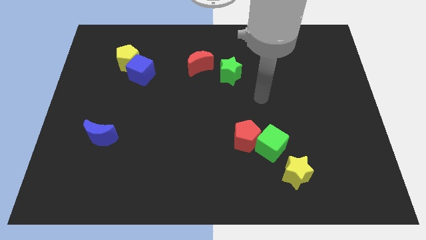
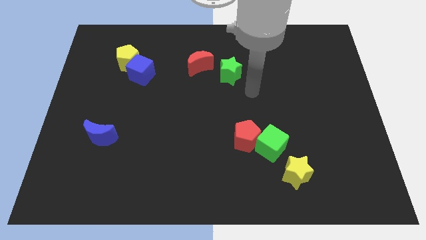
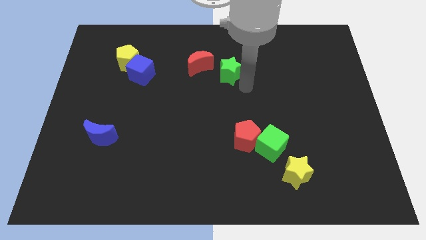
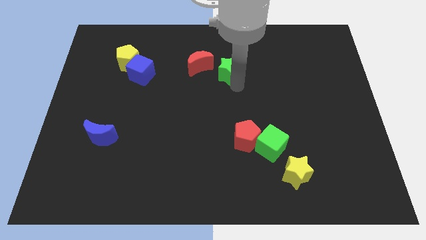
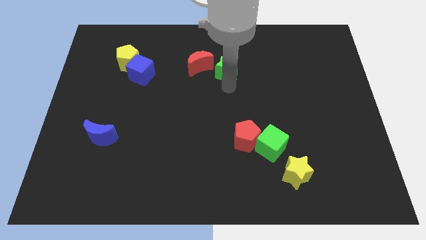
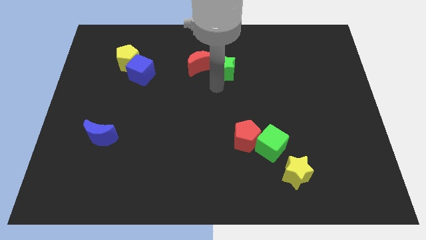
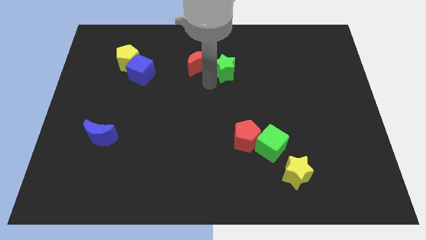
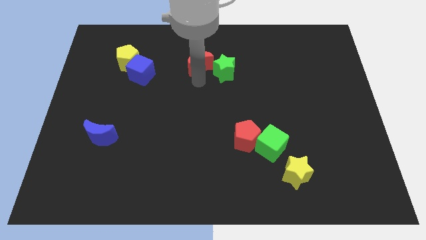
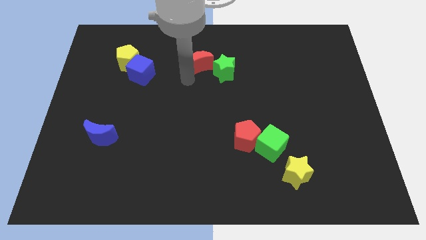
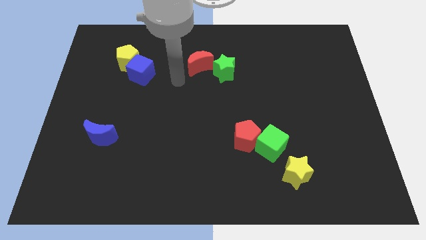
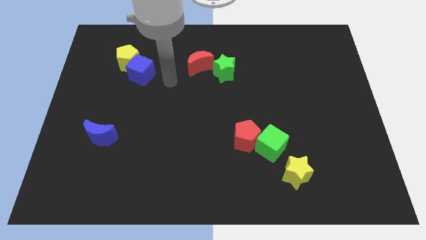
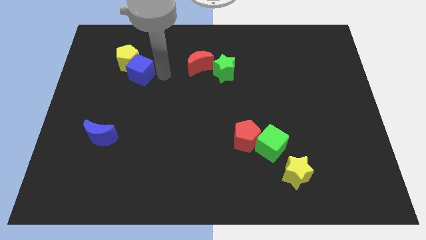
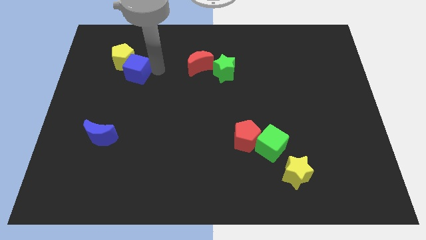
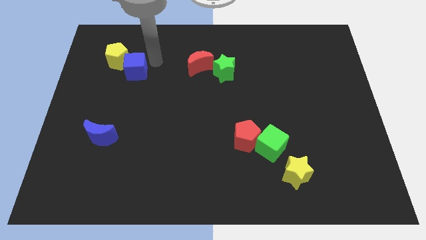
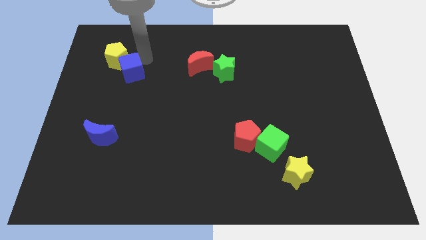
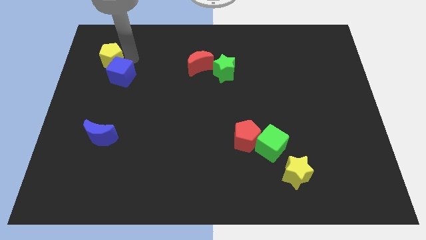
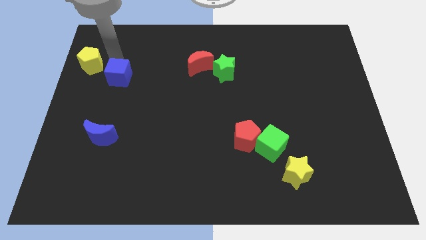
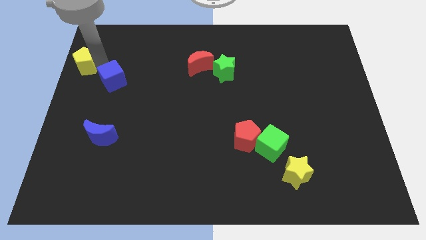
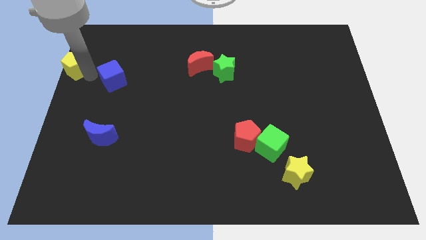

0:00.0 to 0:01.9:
separate the blue cube from the yellow pentagon

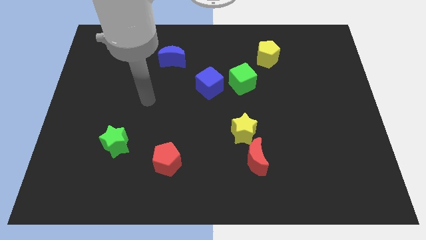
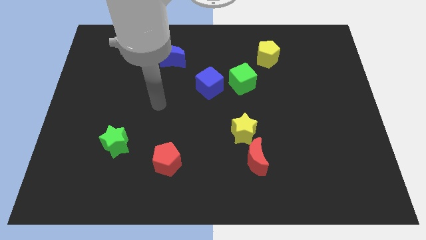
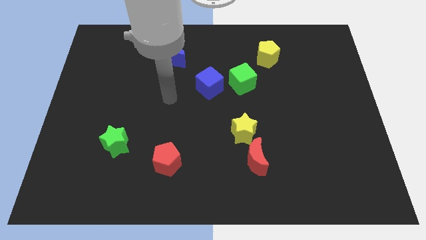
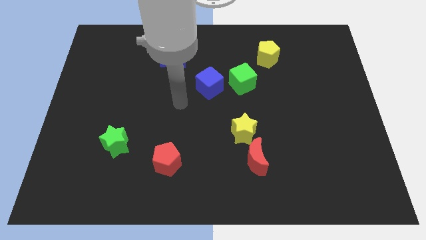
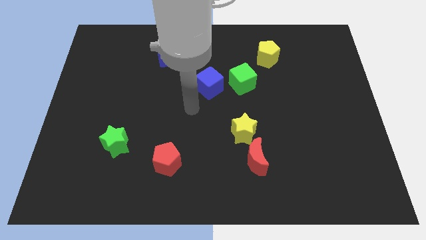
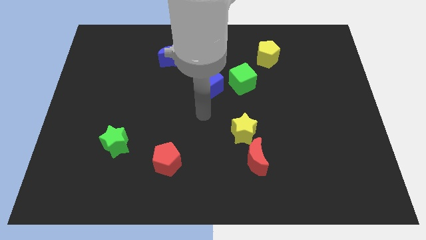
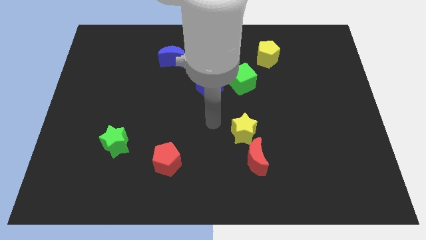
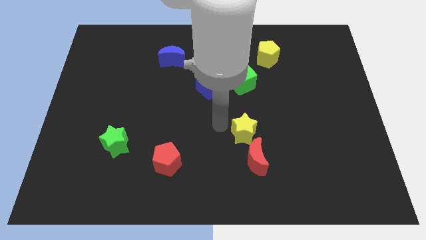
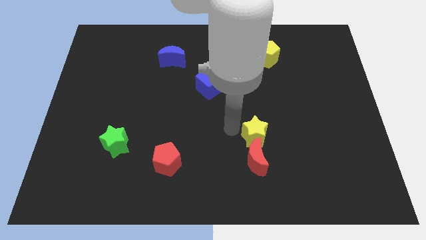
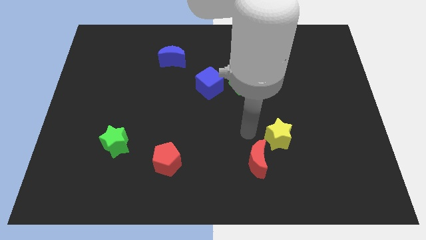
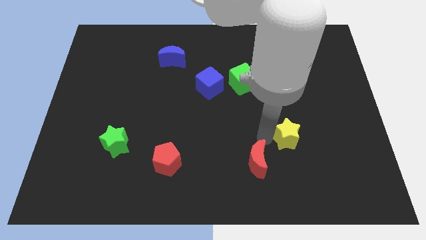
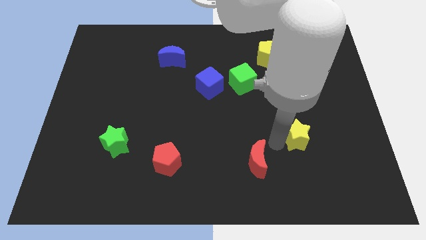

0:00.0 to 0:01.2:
separate the red moon from the yellow star

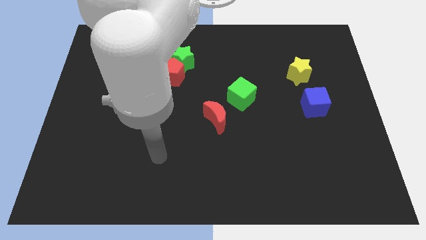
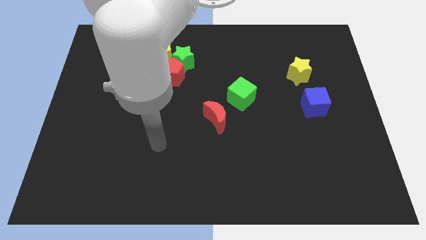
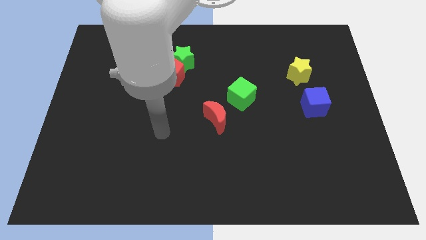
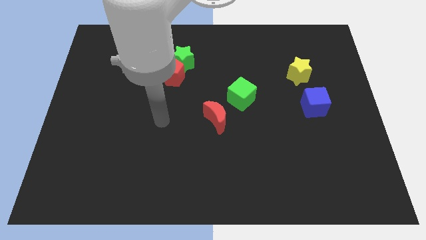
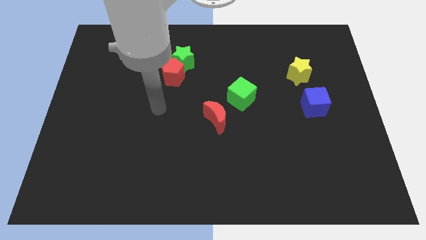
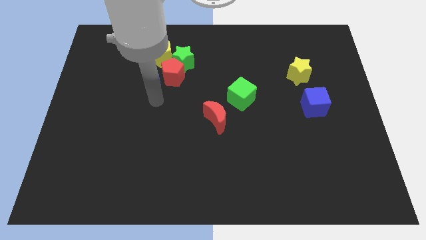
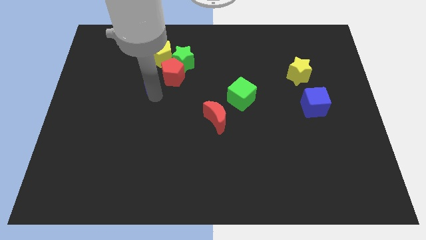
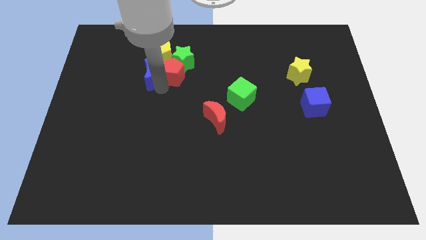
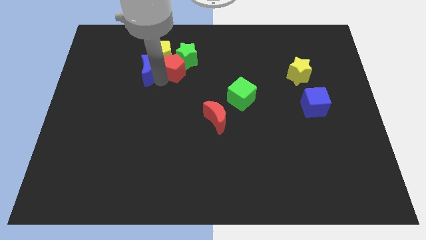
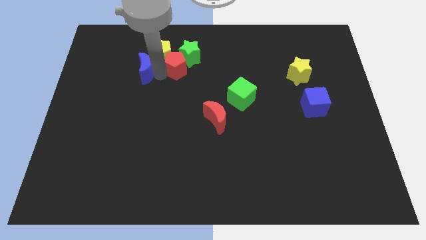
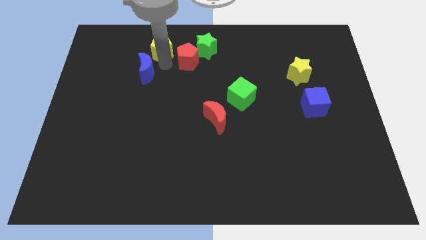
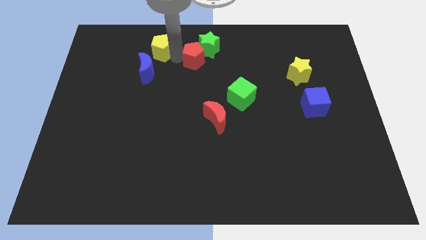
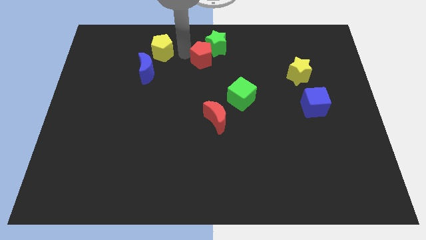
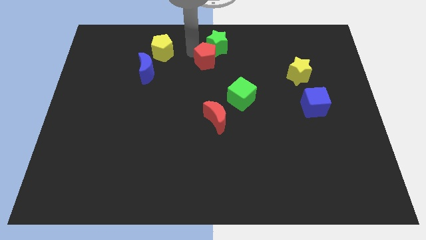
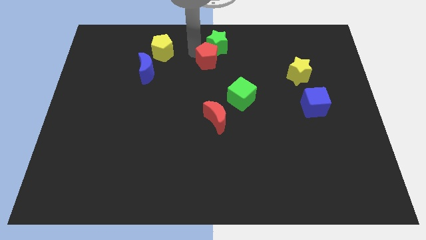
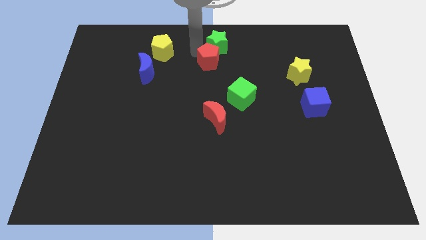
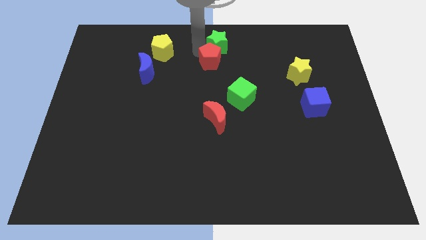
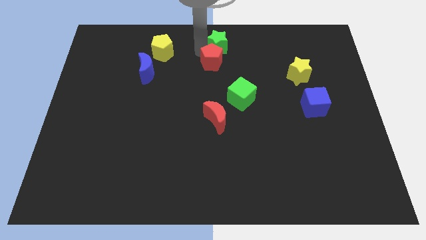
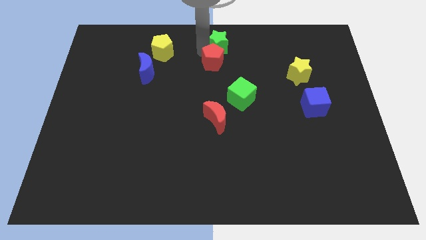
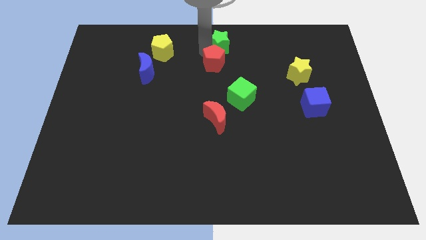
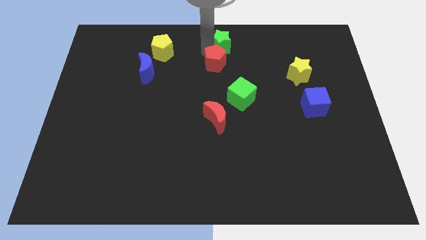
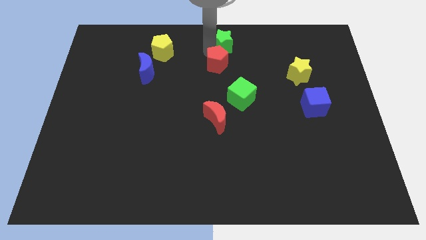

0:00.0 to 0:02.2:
move the green star away from the red pentagon and yellow pentagon

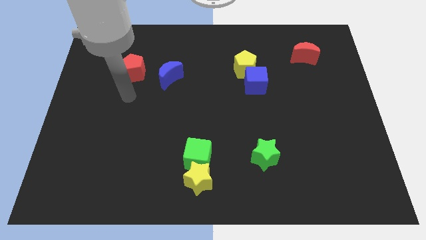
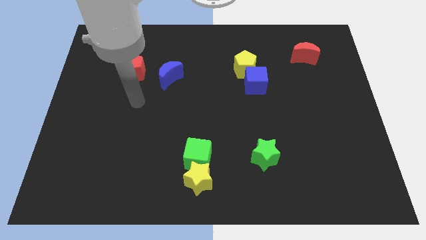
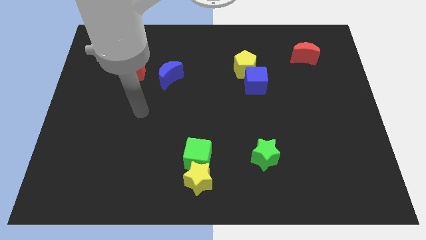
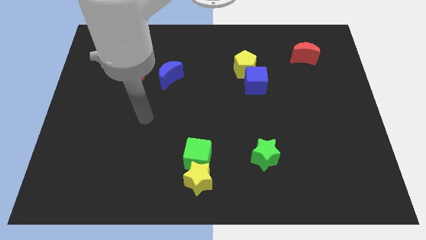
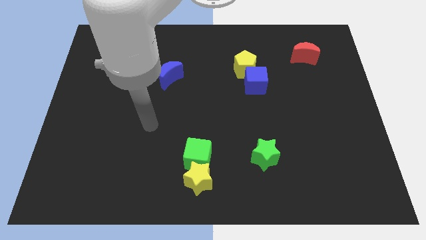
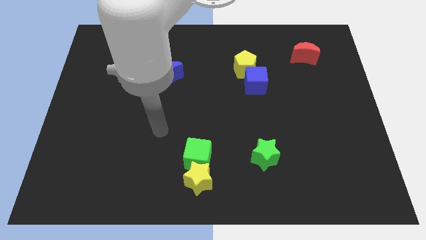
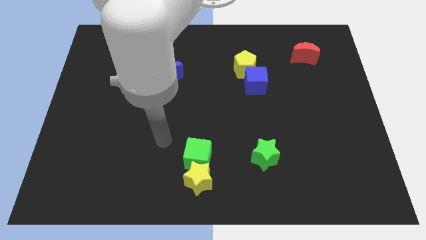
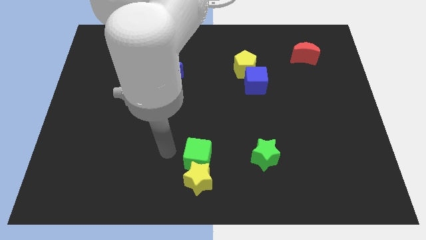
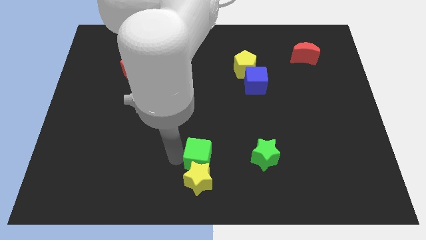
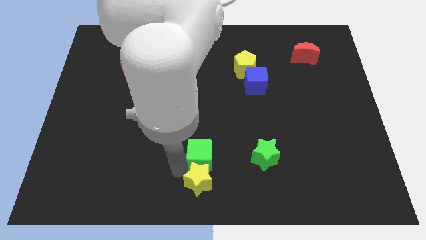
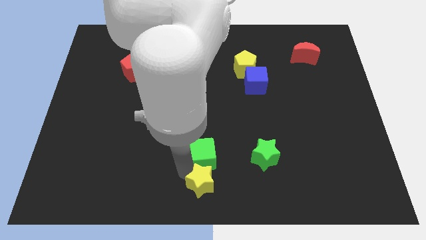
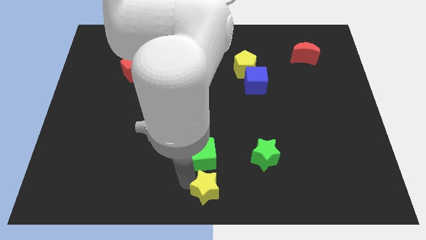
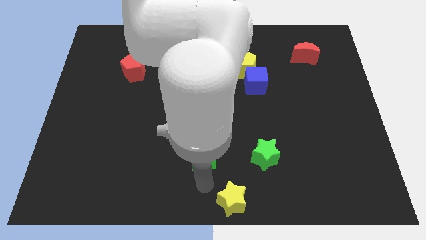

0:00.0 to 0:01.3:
pull the green cube apart from the yellow star

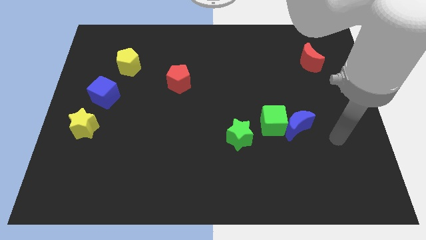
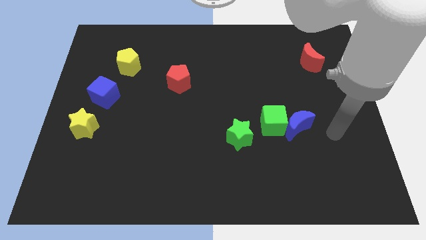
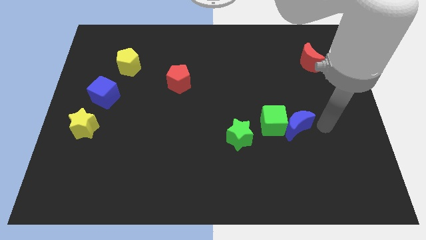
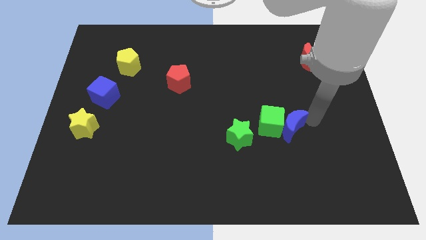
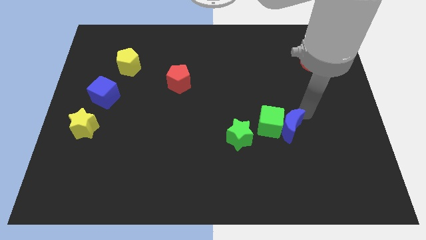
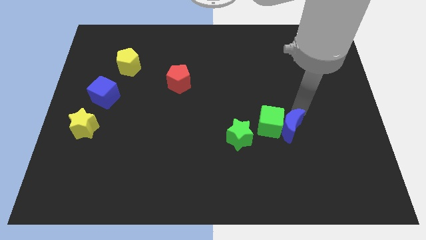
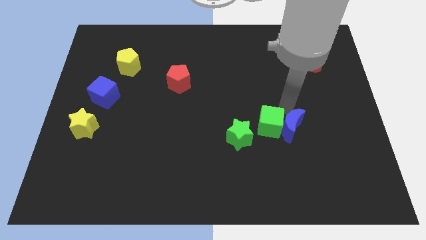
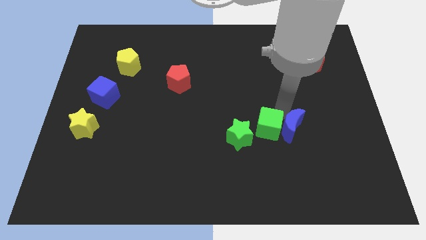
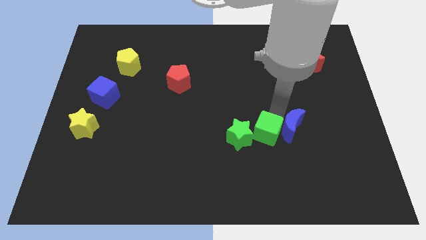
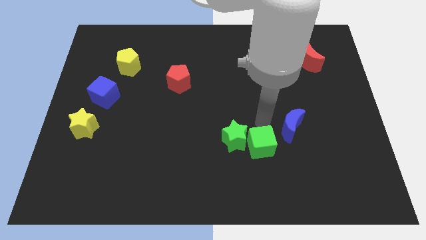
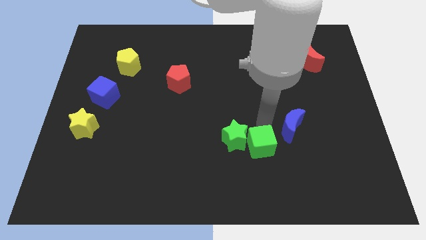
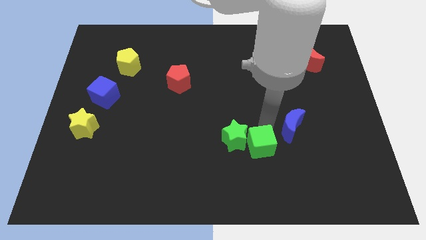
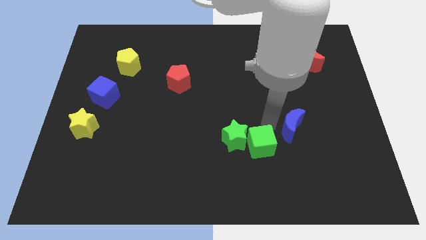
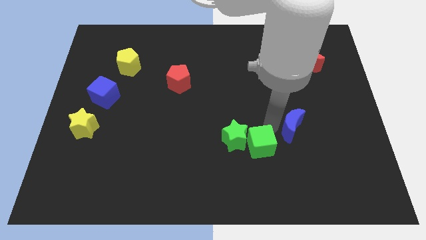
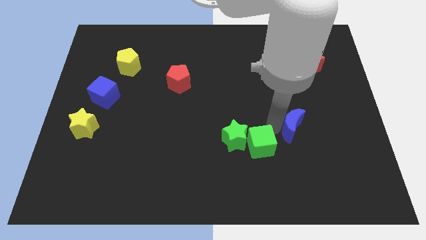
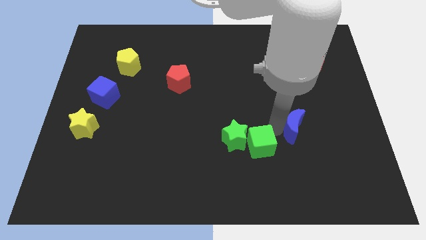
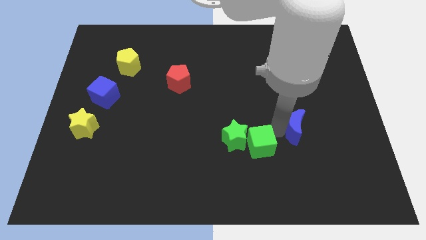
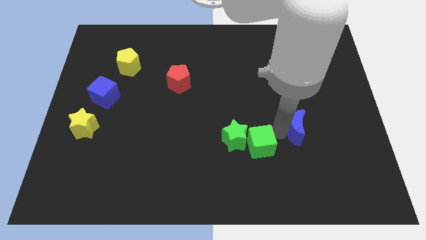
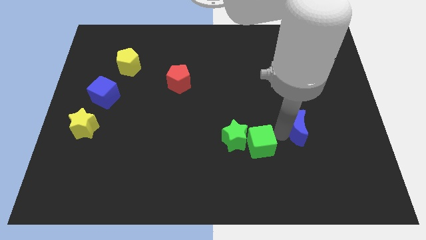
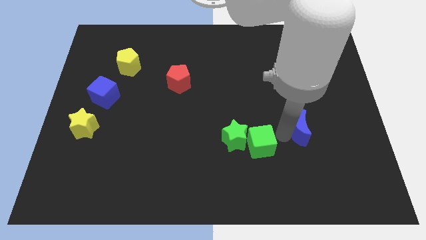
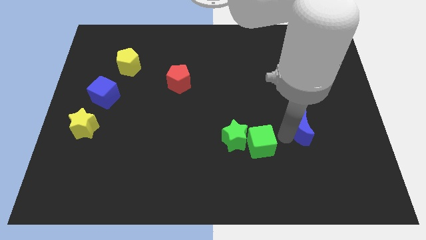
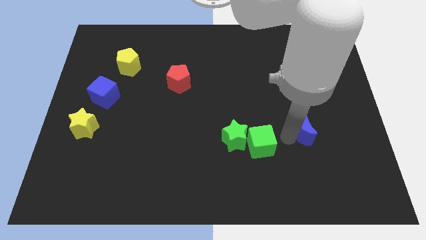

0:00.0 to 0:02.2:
separate the blue moon from the green cube

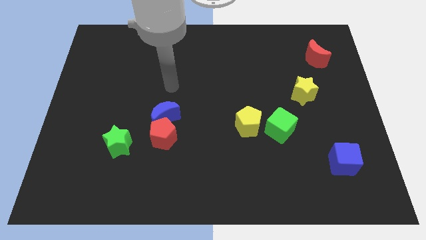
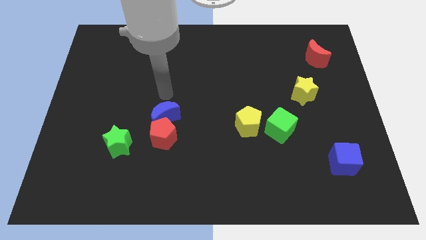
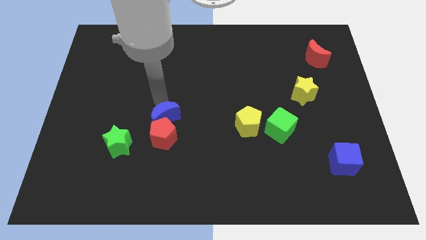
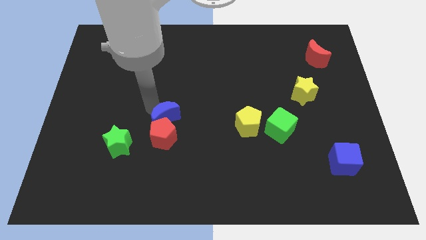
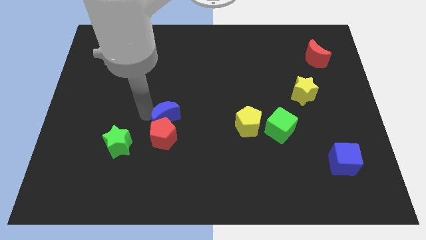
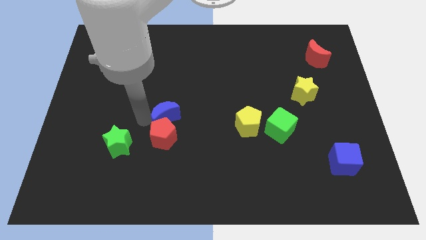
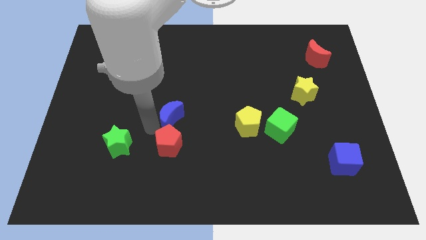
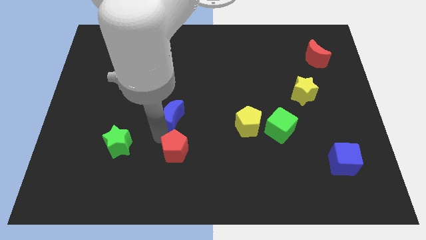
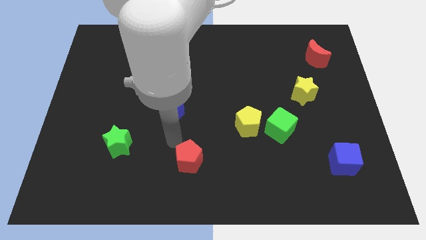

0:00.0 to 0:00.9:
separate the blue moon from the red pentagon
